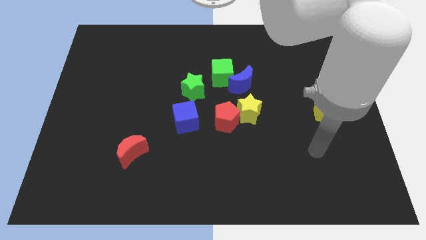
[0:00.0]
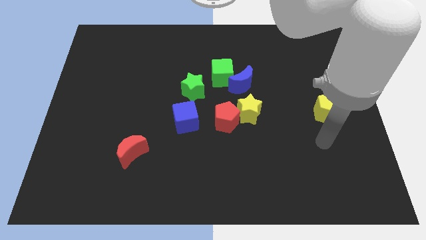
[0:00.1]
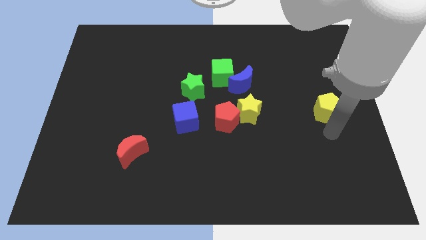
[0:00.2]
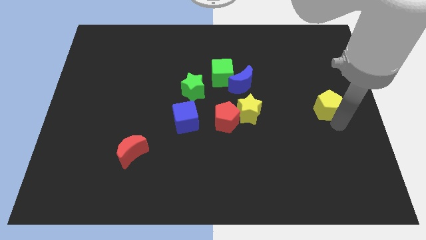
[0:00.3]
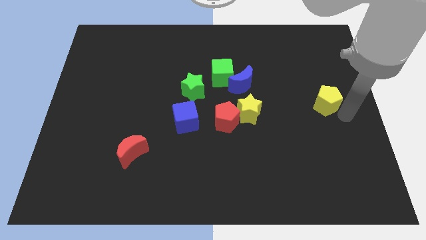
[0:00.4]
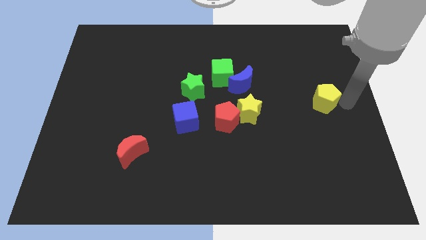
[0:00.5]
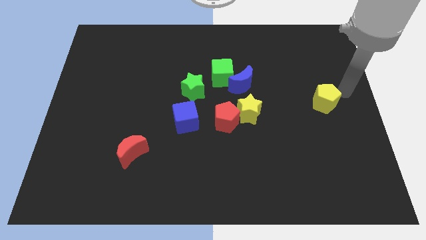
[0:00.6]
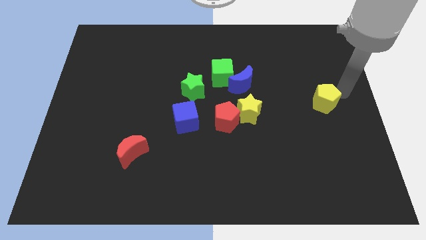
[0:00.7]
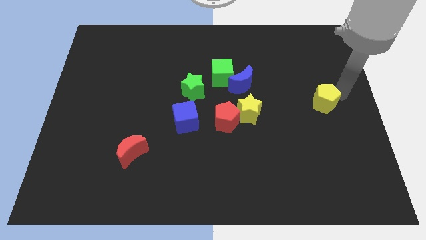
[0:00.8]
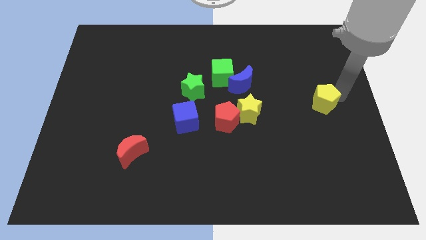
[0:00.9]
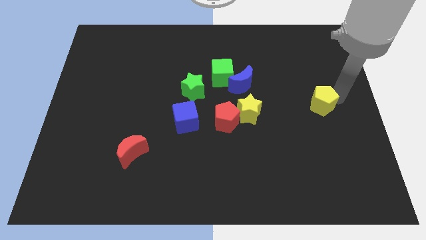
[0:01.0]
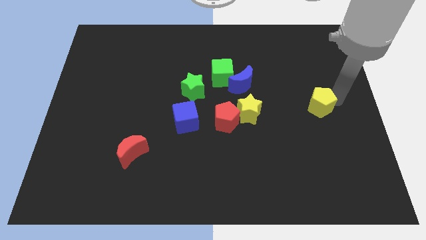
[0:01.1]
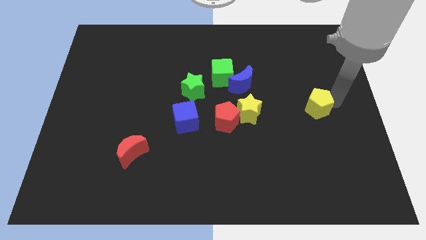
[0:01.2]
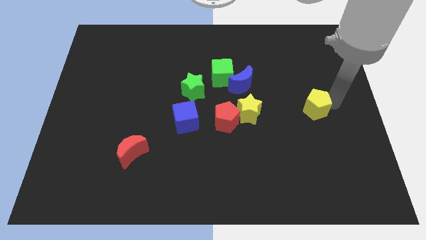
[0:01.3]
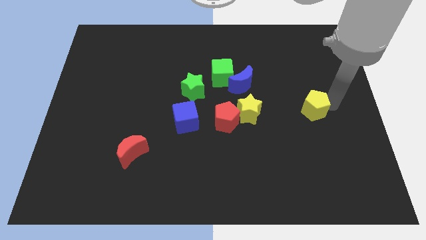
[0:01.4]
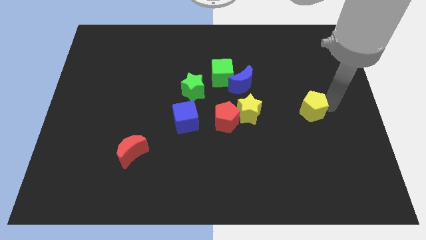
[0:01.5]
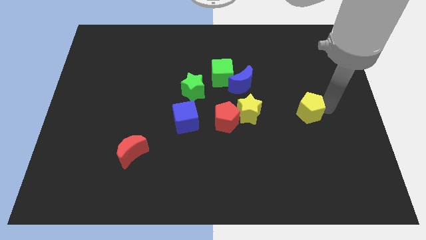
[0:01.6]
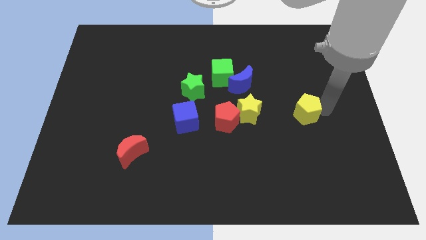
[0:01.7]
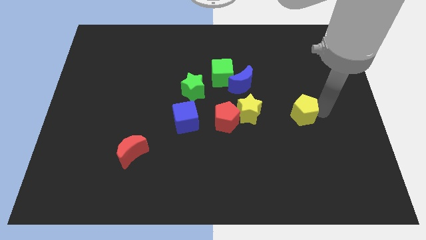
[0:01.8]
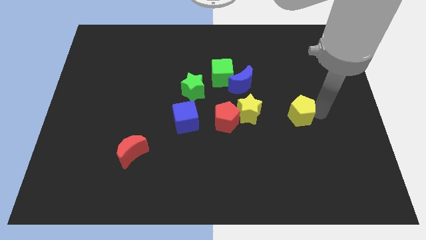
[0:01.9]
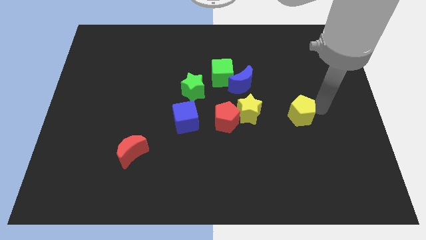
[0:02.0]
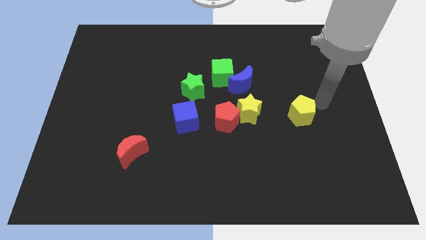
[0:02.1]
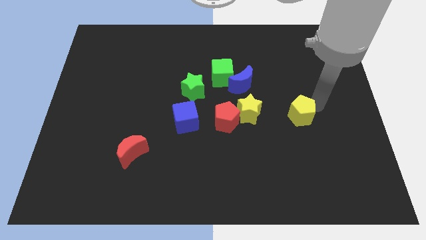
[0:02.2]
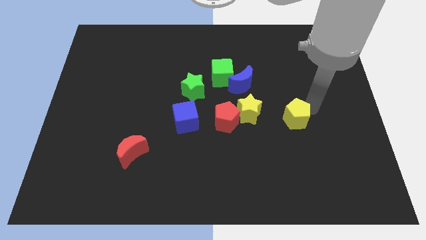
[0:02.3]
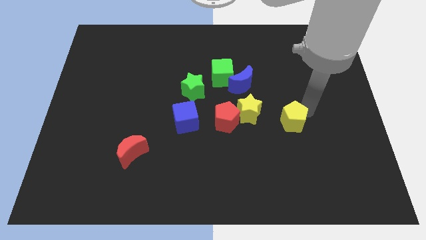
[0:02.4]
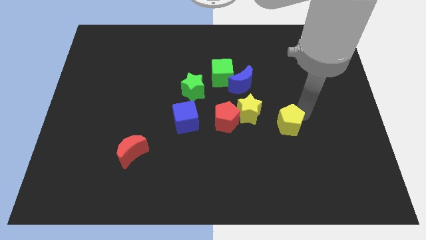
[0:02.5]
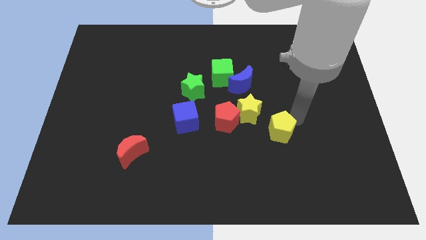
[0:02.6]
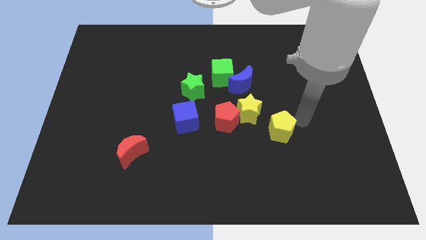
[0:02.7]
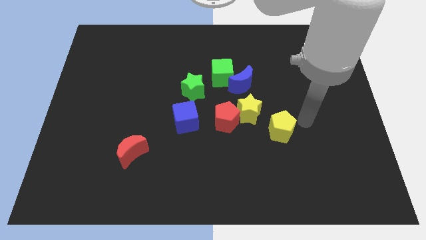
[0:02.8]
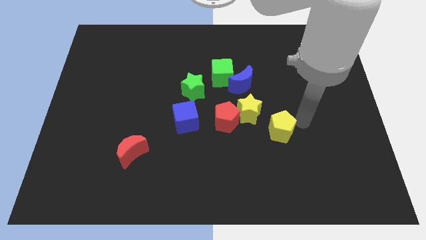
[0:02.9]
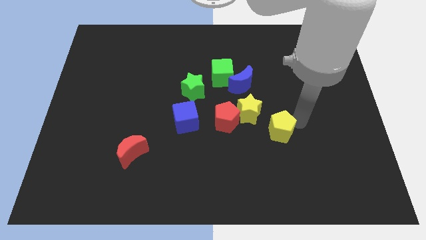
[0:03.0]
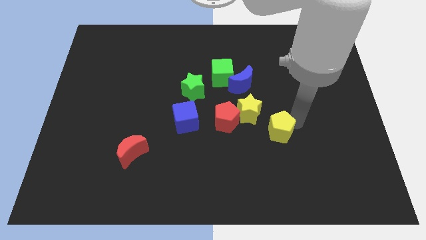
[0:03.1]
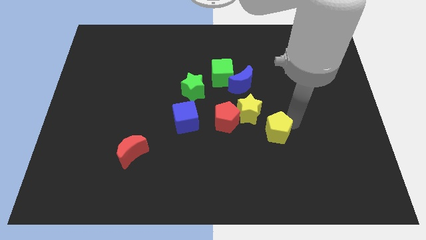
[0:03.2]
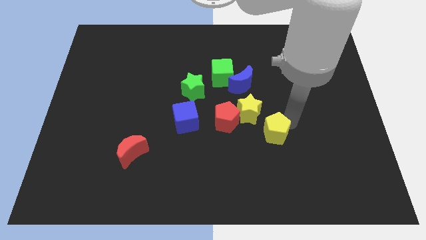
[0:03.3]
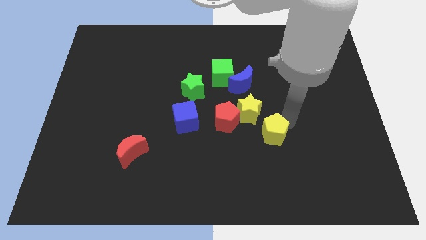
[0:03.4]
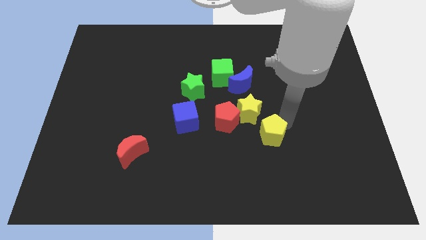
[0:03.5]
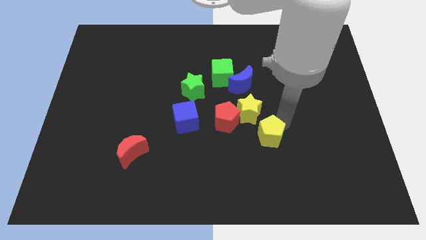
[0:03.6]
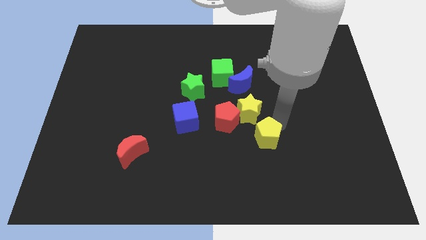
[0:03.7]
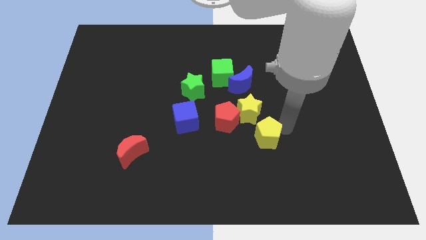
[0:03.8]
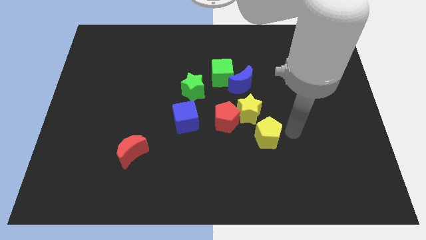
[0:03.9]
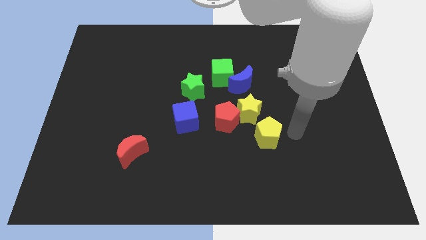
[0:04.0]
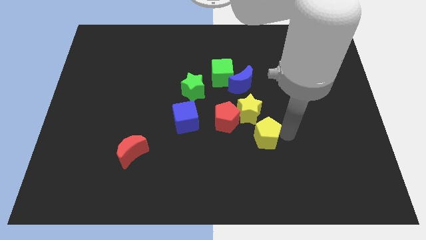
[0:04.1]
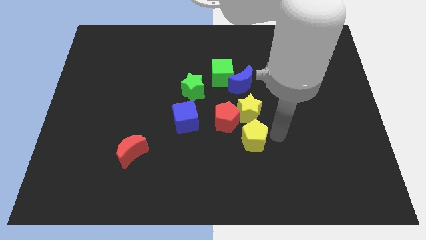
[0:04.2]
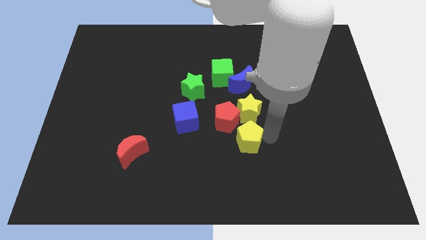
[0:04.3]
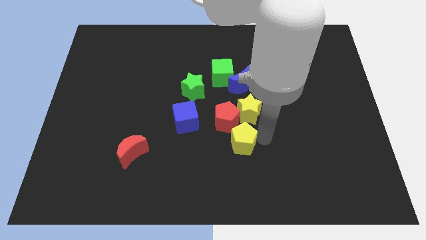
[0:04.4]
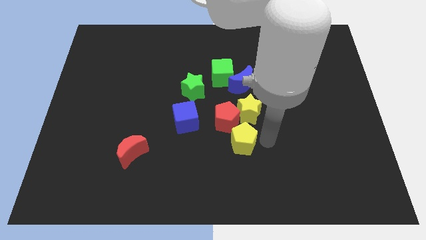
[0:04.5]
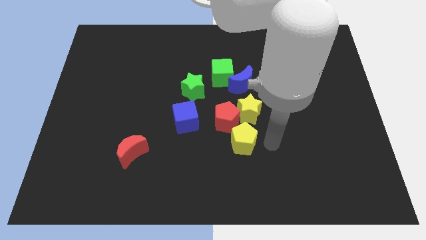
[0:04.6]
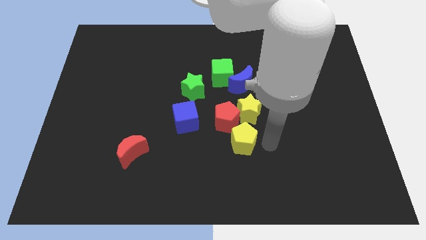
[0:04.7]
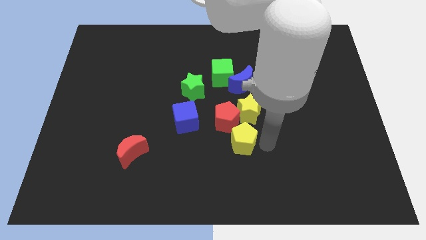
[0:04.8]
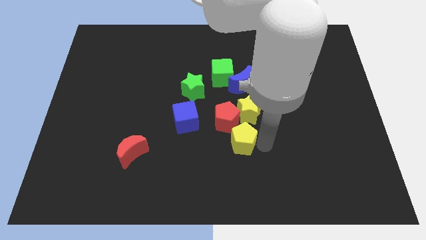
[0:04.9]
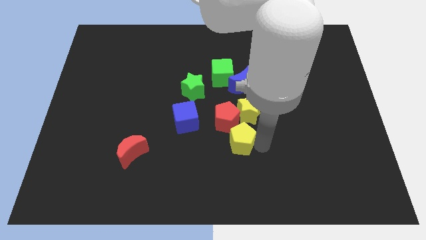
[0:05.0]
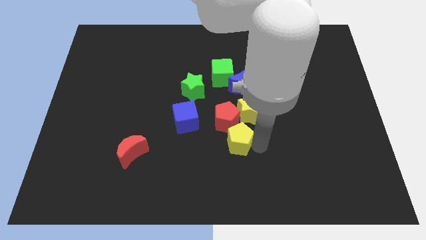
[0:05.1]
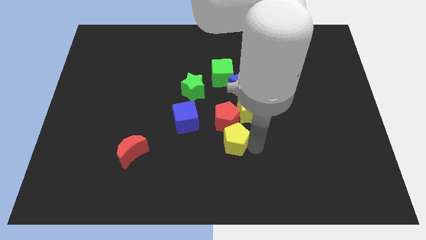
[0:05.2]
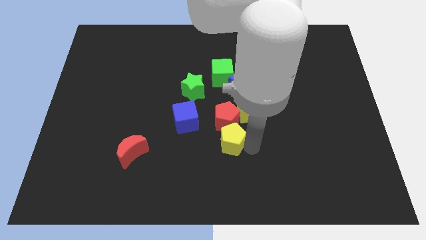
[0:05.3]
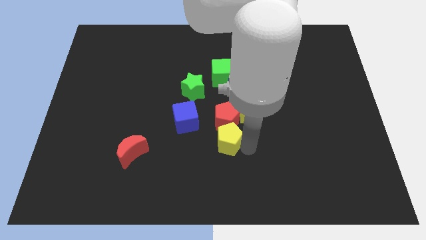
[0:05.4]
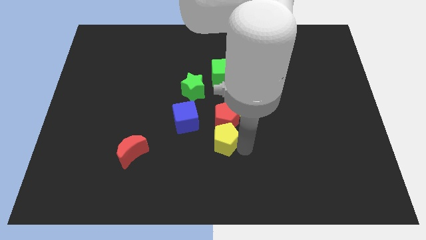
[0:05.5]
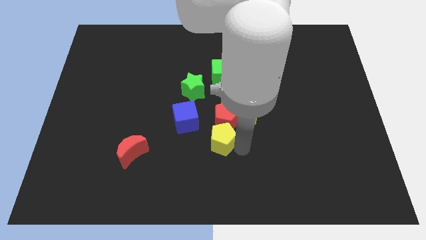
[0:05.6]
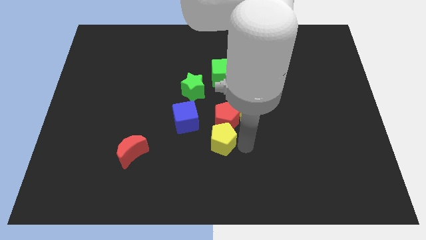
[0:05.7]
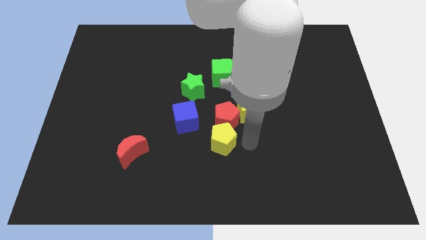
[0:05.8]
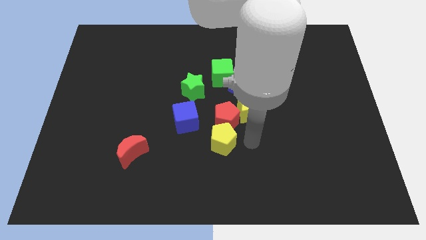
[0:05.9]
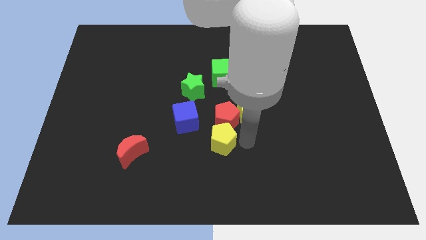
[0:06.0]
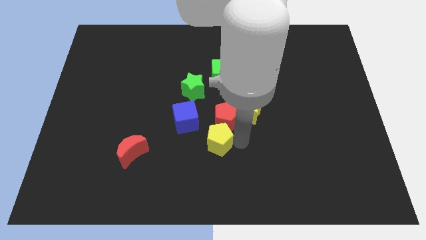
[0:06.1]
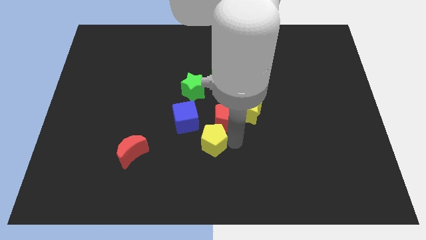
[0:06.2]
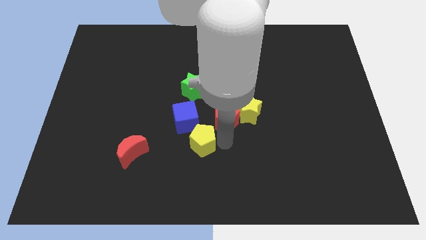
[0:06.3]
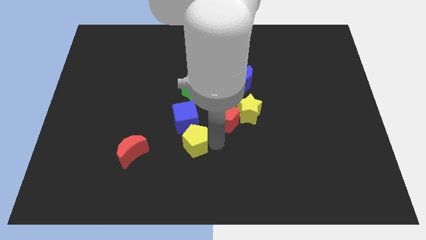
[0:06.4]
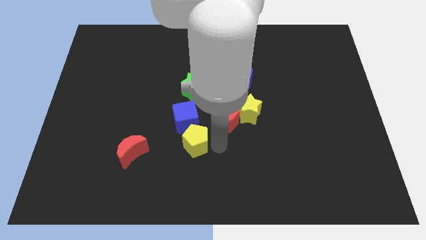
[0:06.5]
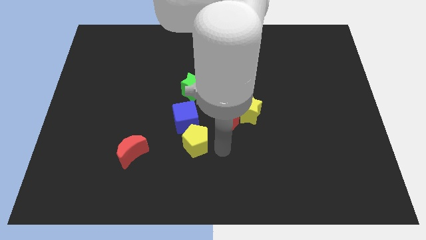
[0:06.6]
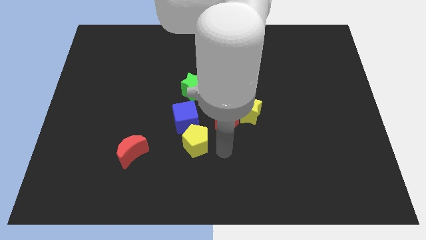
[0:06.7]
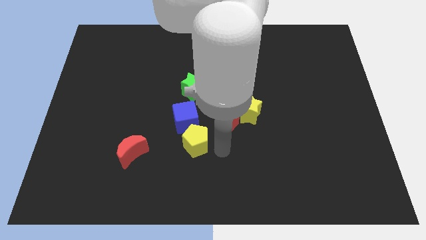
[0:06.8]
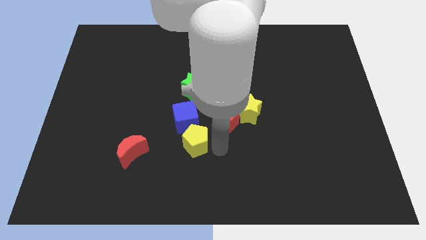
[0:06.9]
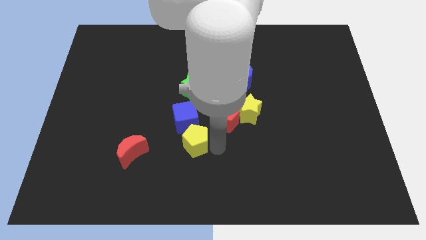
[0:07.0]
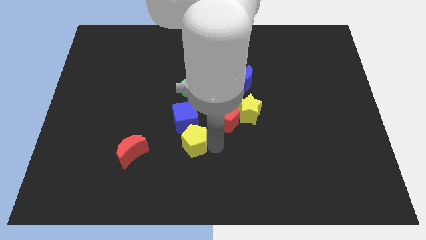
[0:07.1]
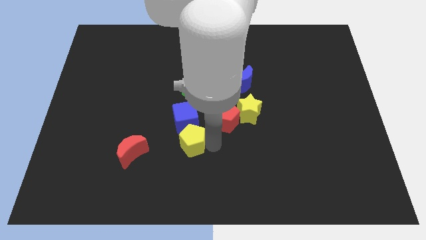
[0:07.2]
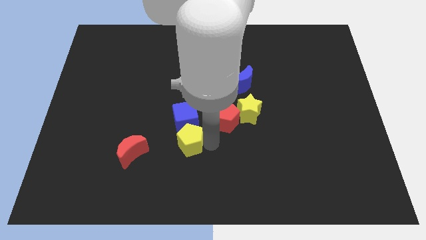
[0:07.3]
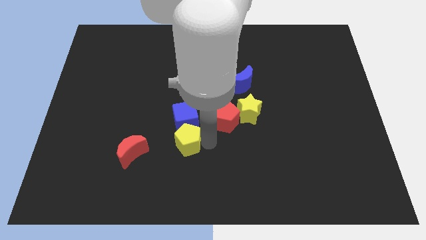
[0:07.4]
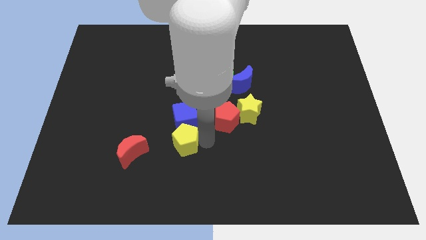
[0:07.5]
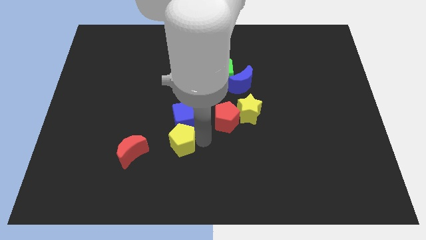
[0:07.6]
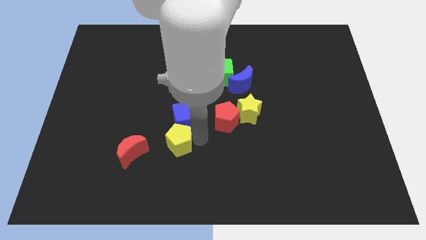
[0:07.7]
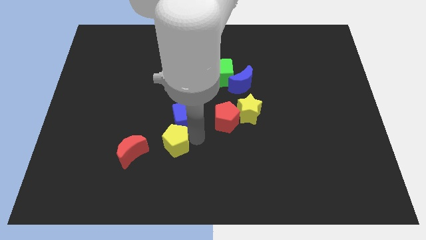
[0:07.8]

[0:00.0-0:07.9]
push the yellow pentagon diagonally up and to the right of the red moon
